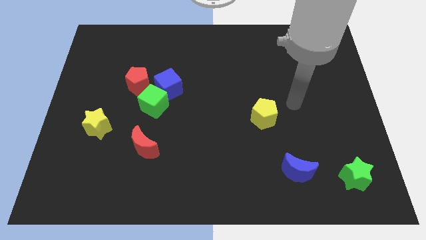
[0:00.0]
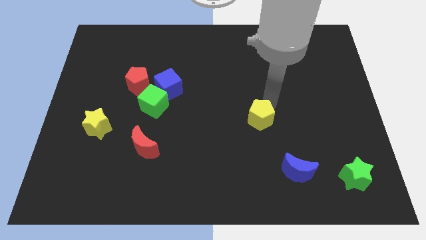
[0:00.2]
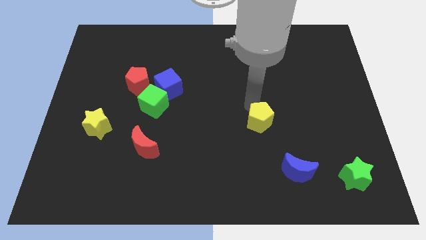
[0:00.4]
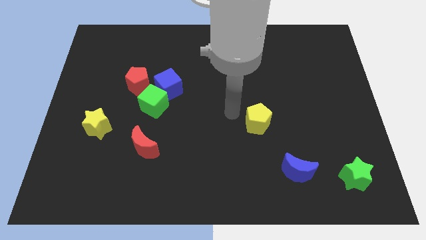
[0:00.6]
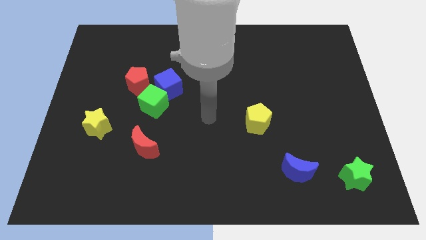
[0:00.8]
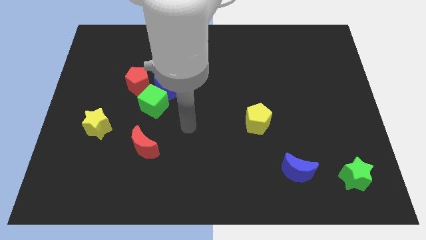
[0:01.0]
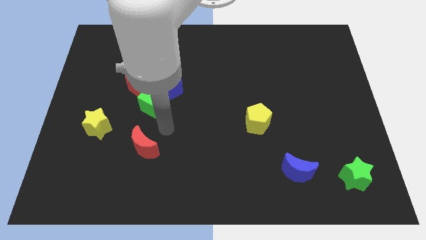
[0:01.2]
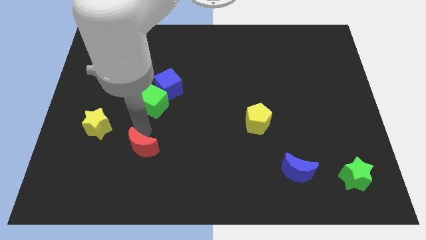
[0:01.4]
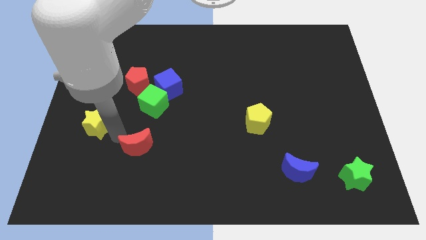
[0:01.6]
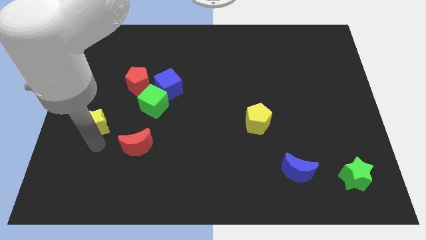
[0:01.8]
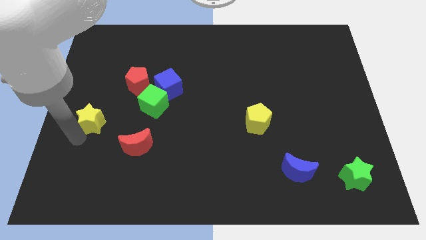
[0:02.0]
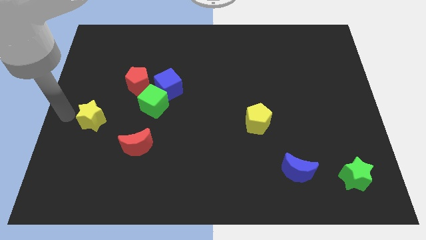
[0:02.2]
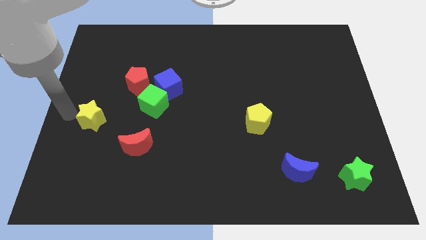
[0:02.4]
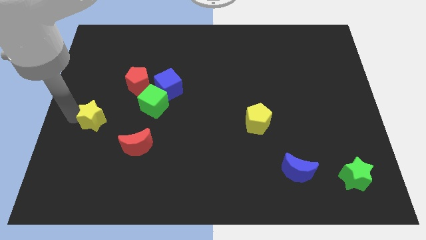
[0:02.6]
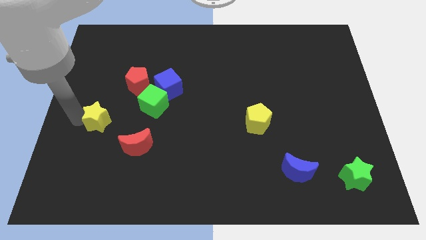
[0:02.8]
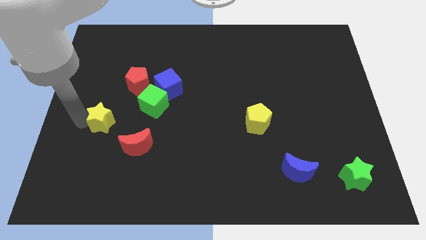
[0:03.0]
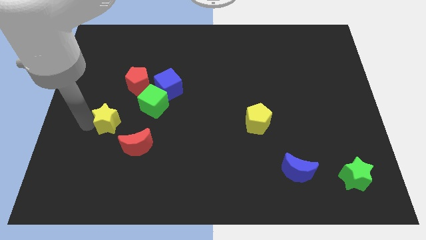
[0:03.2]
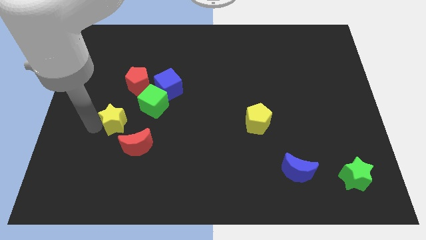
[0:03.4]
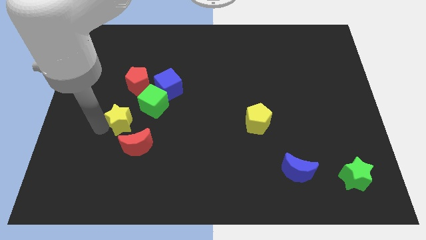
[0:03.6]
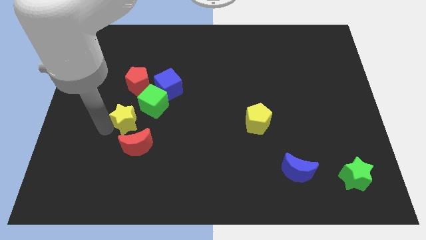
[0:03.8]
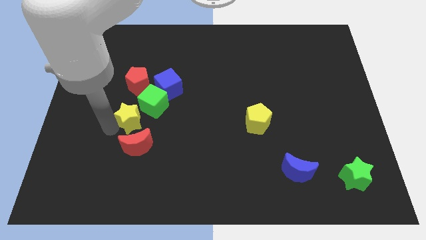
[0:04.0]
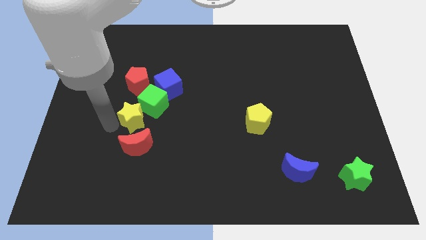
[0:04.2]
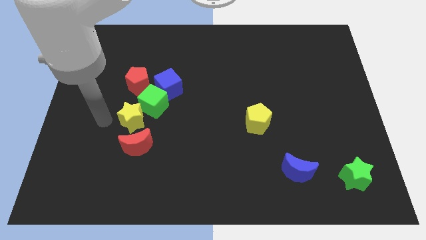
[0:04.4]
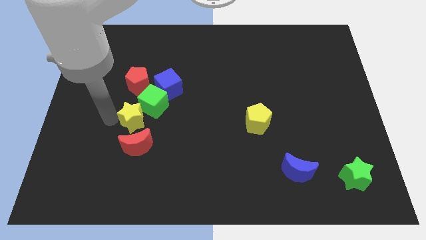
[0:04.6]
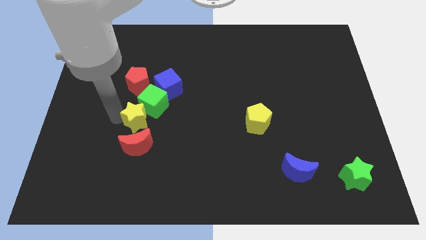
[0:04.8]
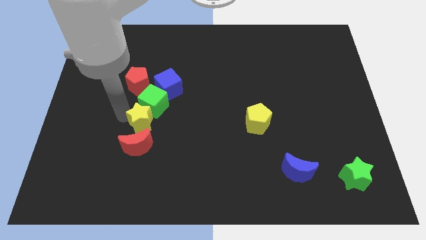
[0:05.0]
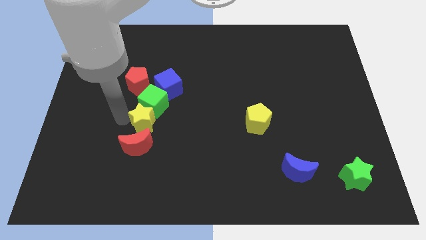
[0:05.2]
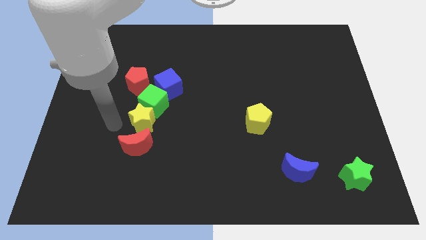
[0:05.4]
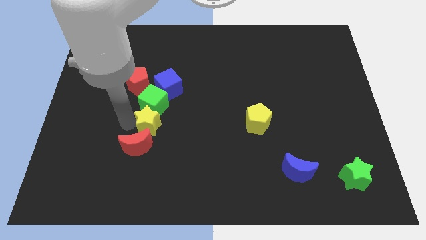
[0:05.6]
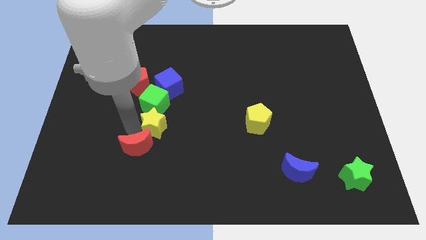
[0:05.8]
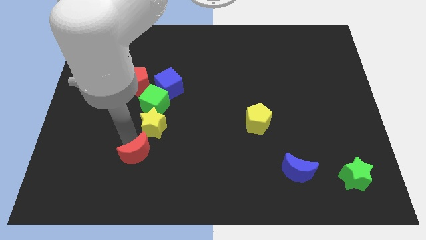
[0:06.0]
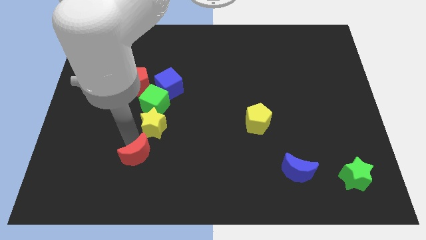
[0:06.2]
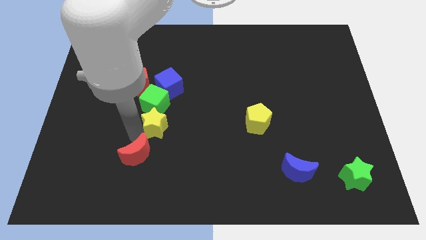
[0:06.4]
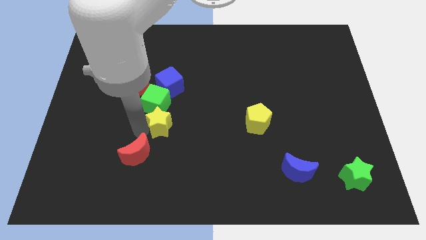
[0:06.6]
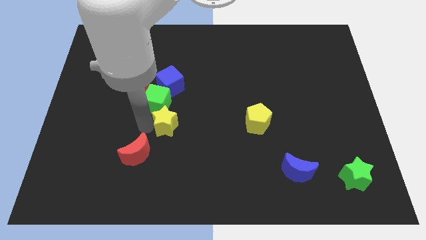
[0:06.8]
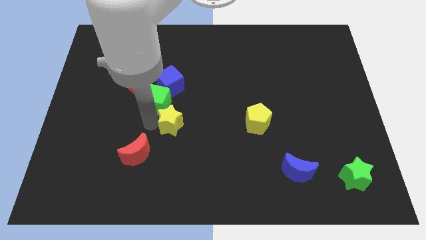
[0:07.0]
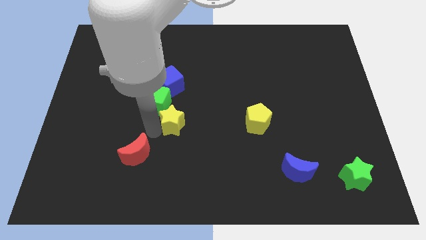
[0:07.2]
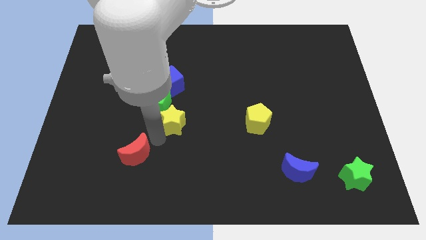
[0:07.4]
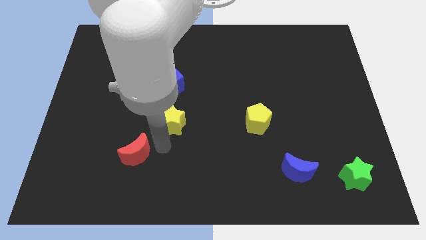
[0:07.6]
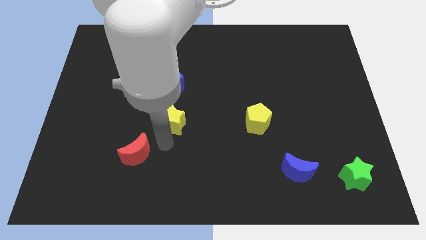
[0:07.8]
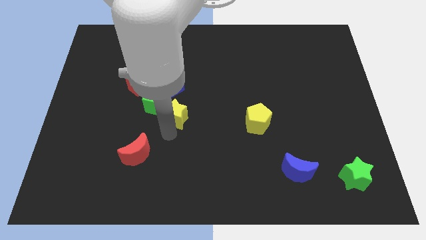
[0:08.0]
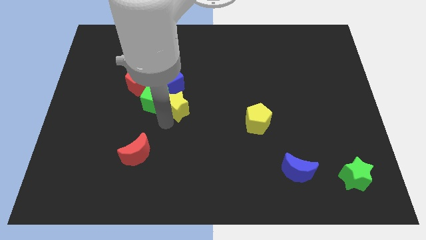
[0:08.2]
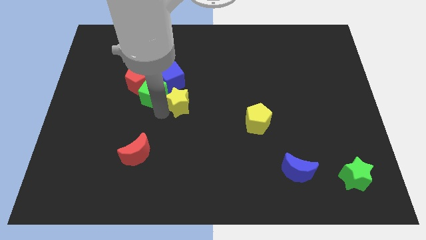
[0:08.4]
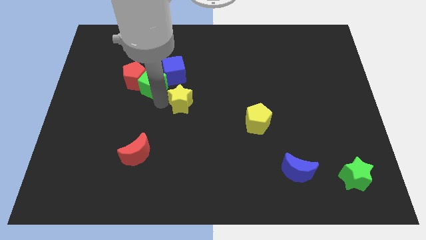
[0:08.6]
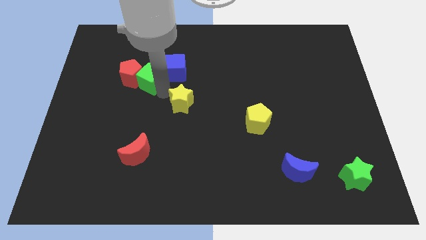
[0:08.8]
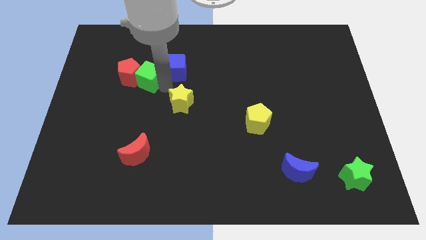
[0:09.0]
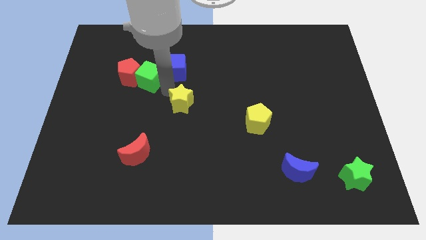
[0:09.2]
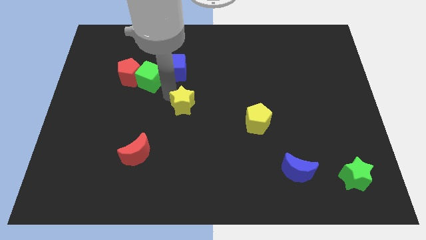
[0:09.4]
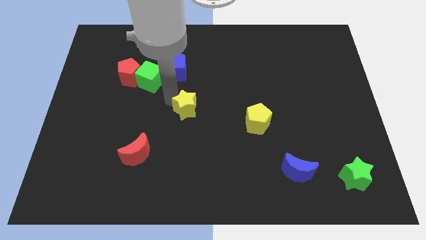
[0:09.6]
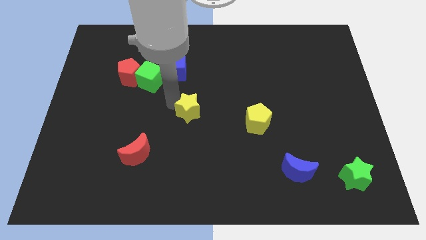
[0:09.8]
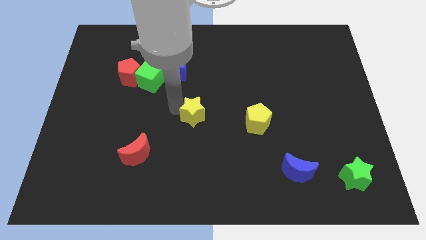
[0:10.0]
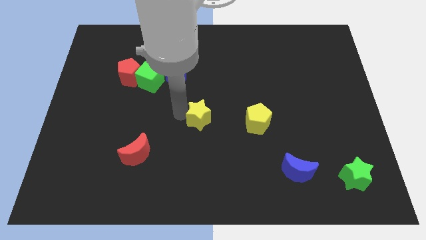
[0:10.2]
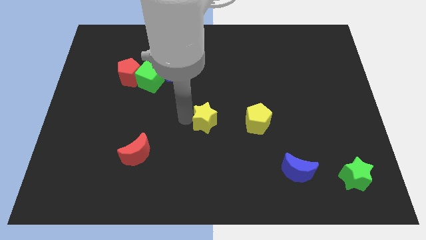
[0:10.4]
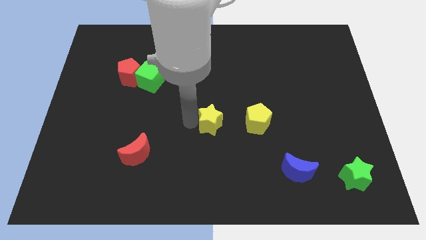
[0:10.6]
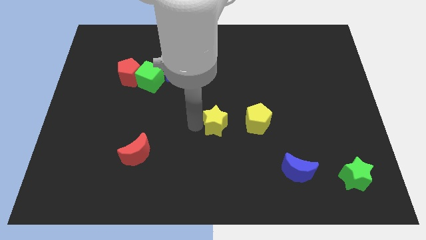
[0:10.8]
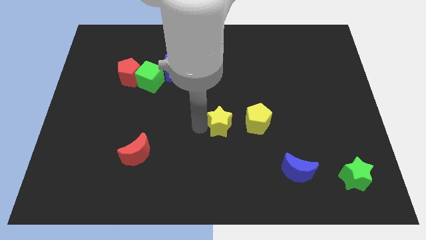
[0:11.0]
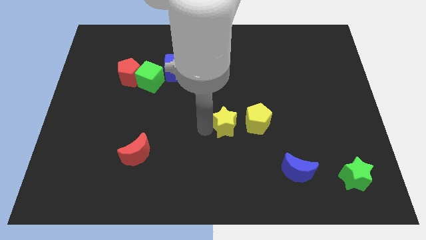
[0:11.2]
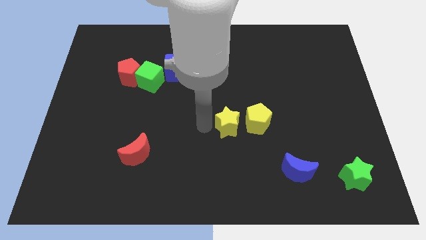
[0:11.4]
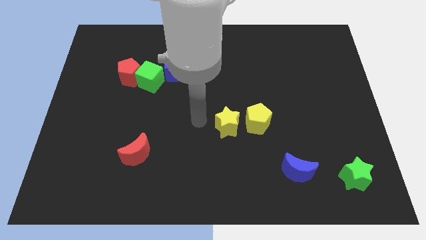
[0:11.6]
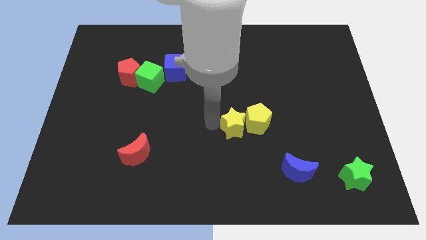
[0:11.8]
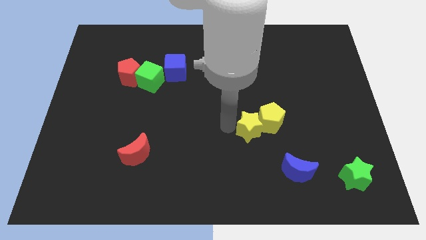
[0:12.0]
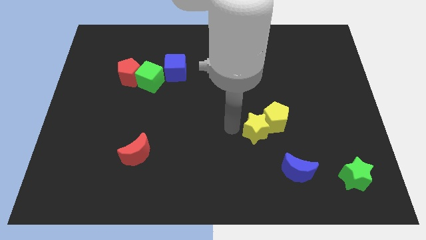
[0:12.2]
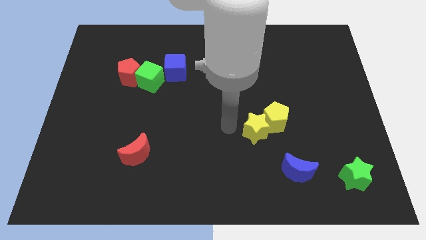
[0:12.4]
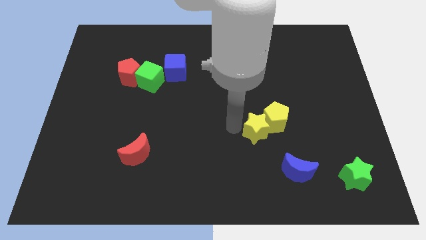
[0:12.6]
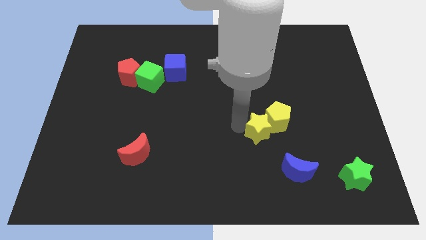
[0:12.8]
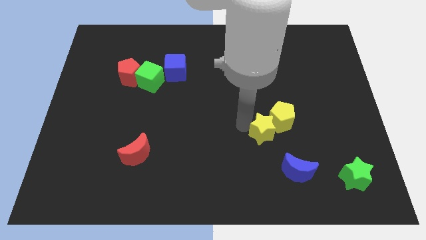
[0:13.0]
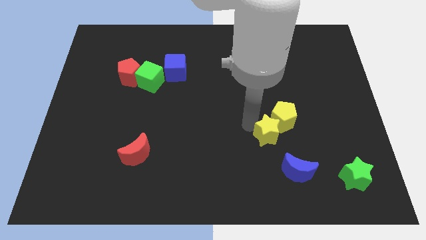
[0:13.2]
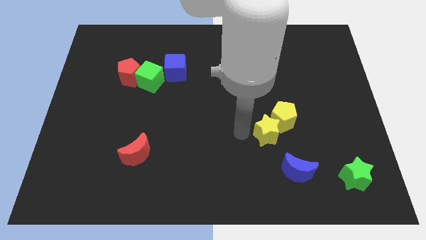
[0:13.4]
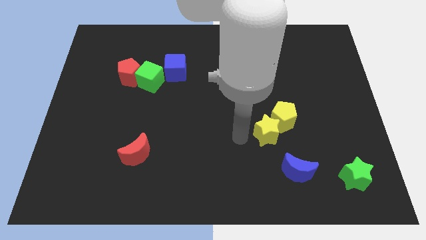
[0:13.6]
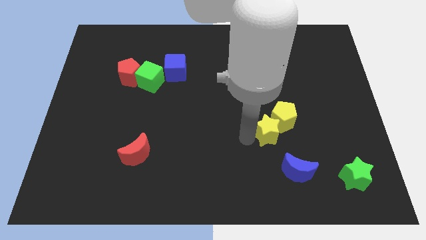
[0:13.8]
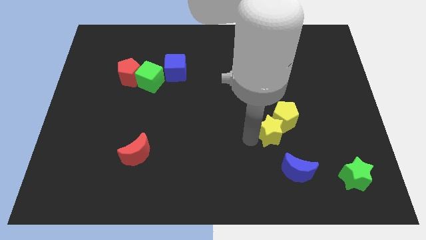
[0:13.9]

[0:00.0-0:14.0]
slide the yellow star to the top side of the blue moon
